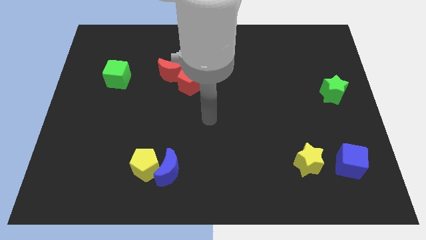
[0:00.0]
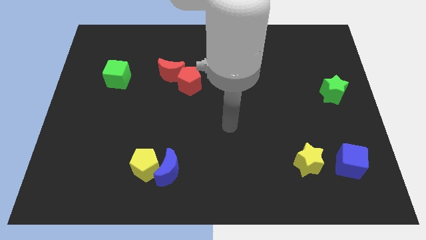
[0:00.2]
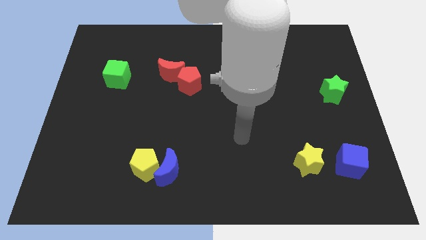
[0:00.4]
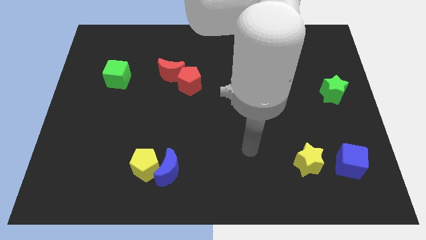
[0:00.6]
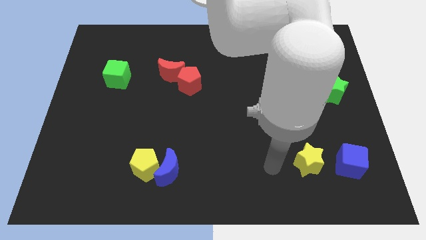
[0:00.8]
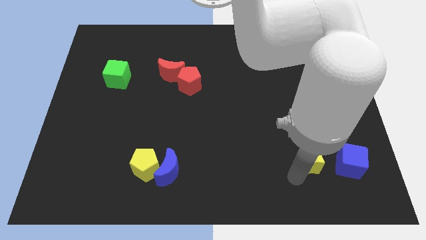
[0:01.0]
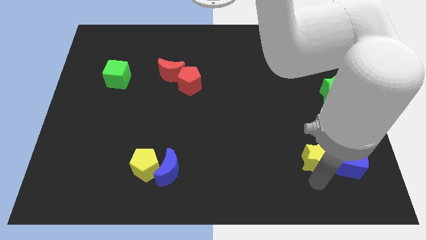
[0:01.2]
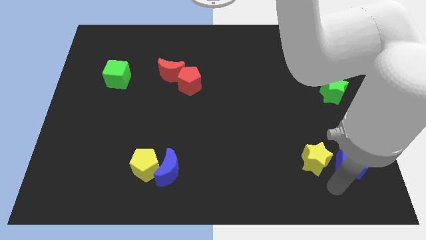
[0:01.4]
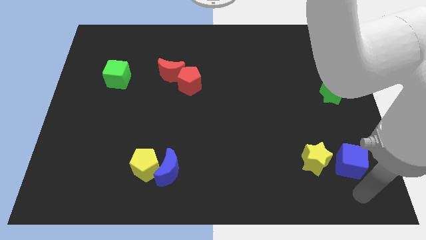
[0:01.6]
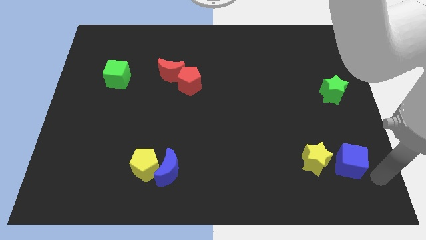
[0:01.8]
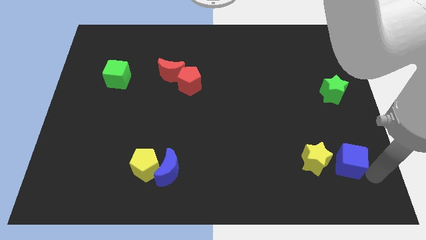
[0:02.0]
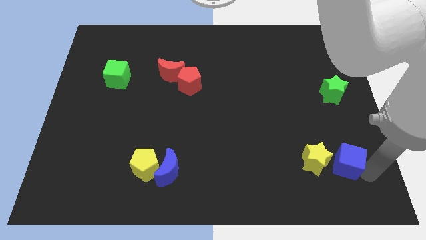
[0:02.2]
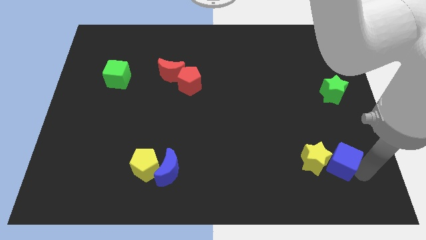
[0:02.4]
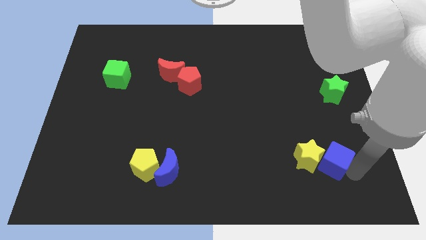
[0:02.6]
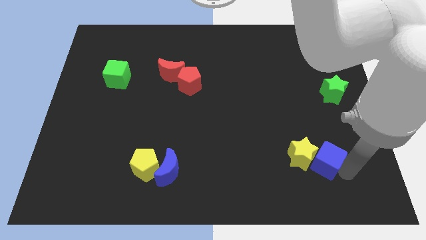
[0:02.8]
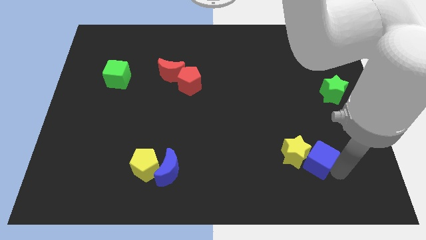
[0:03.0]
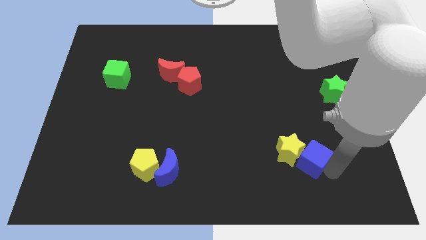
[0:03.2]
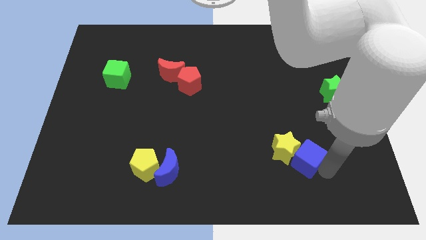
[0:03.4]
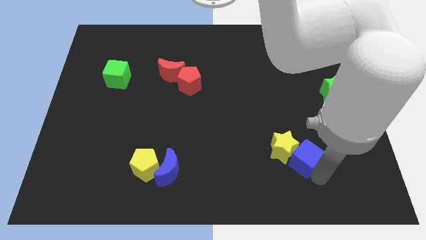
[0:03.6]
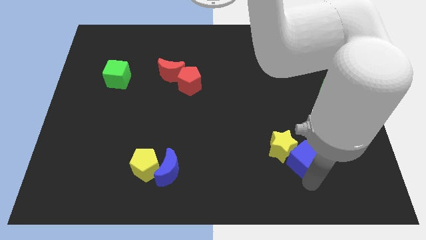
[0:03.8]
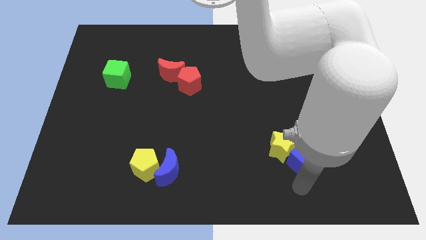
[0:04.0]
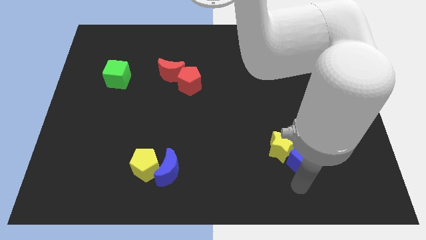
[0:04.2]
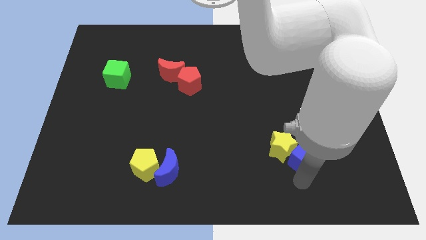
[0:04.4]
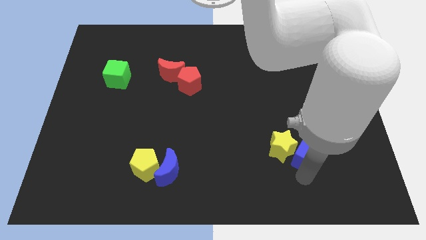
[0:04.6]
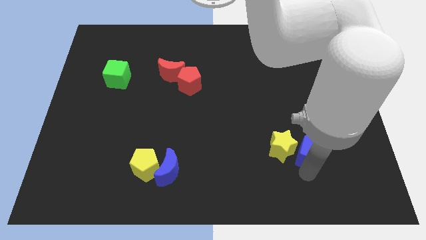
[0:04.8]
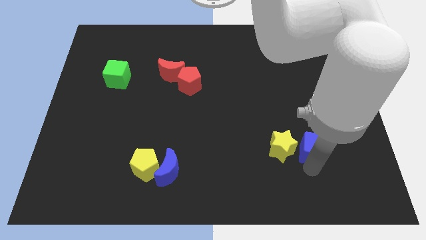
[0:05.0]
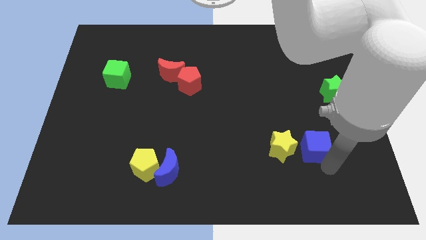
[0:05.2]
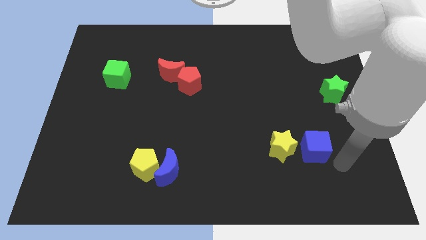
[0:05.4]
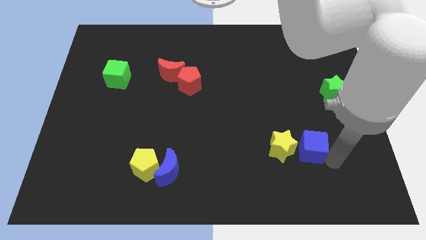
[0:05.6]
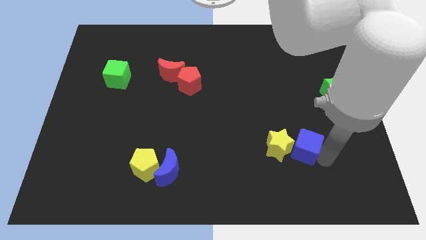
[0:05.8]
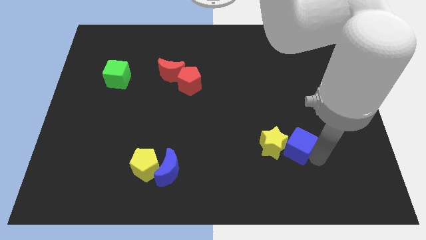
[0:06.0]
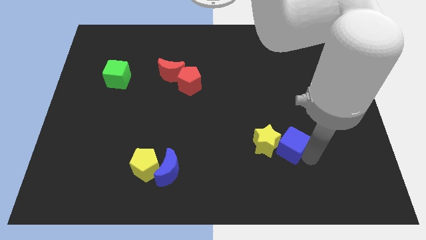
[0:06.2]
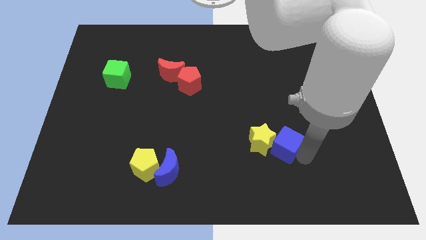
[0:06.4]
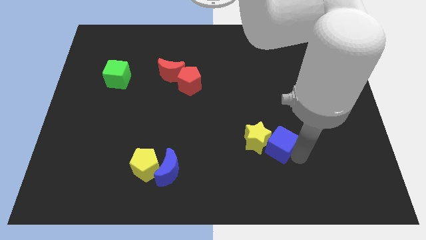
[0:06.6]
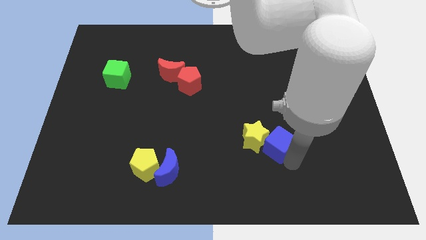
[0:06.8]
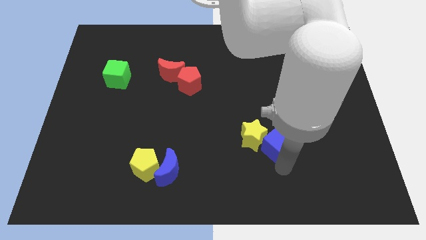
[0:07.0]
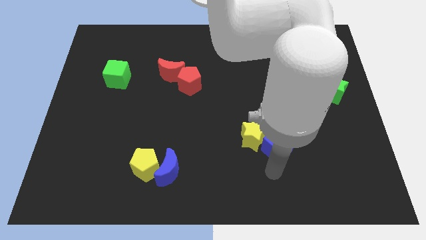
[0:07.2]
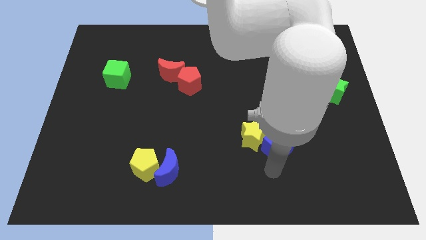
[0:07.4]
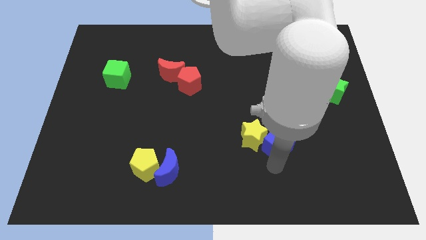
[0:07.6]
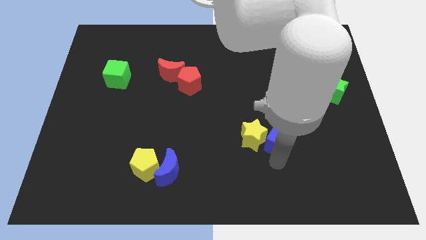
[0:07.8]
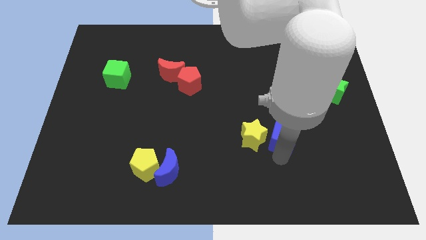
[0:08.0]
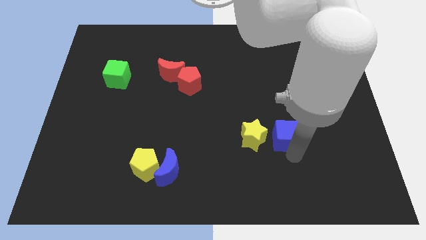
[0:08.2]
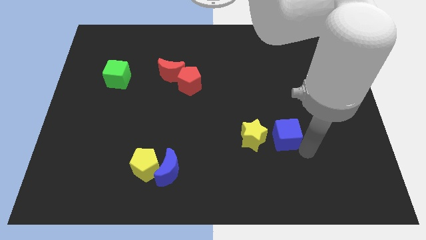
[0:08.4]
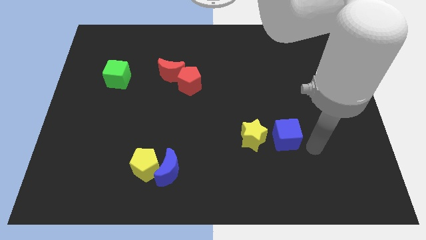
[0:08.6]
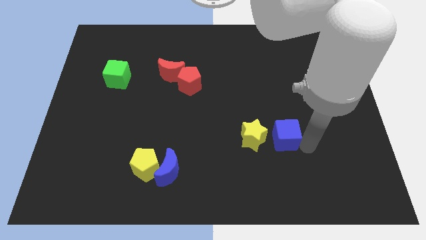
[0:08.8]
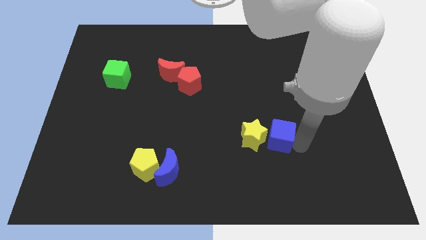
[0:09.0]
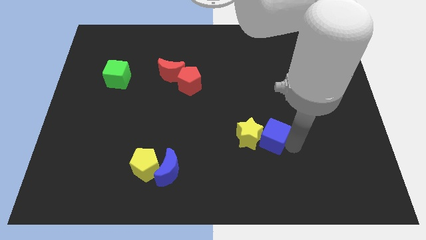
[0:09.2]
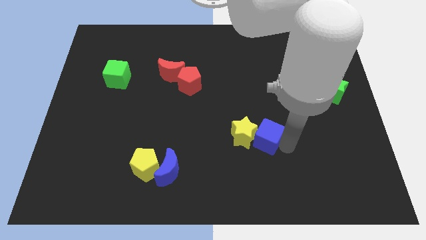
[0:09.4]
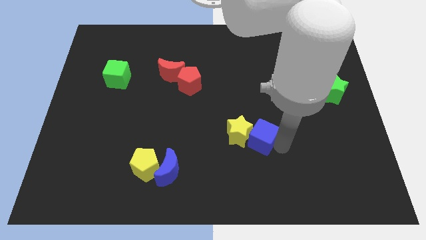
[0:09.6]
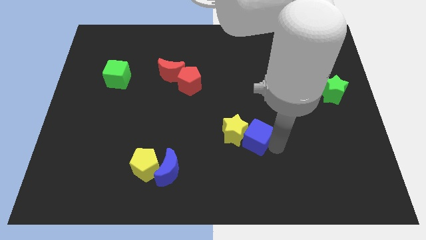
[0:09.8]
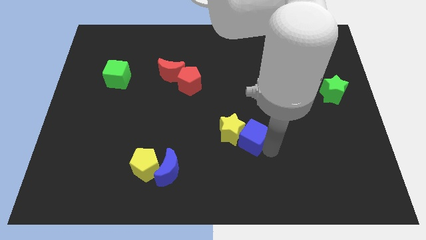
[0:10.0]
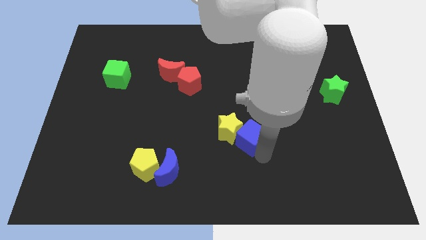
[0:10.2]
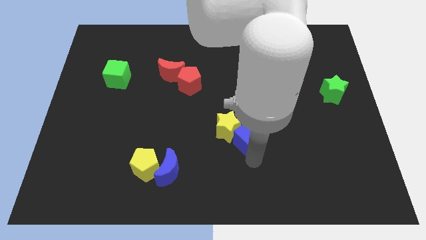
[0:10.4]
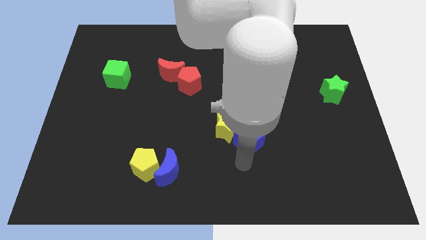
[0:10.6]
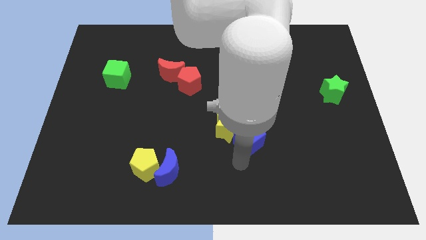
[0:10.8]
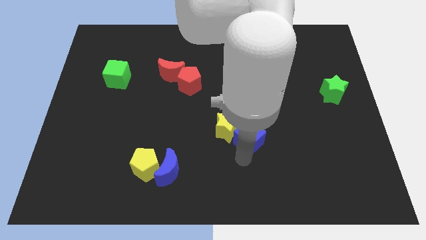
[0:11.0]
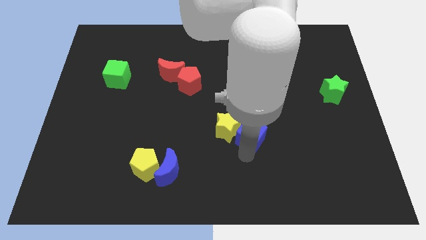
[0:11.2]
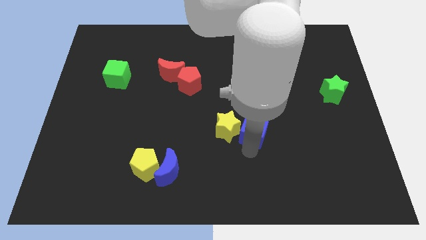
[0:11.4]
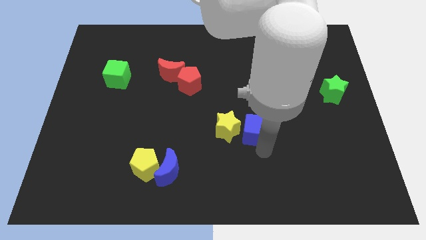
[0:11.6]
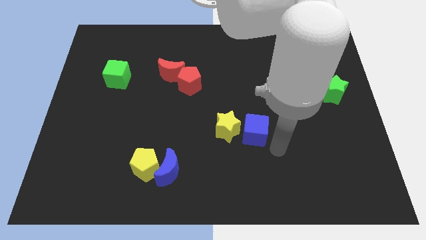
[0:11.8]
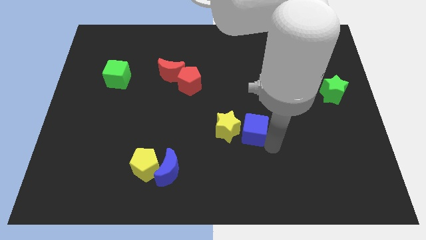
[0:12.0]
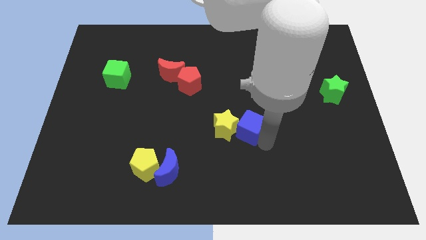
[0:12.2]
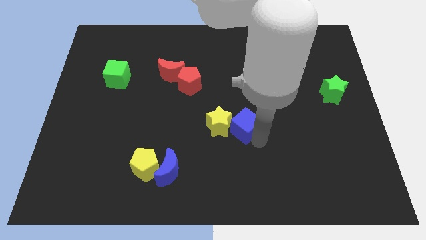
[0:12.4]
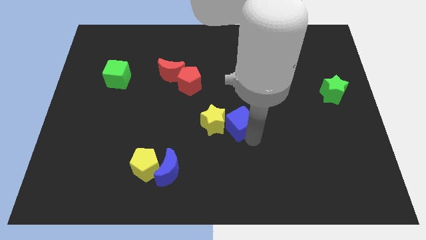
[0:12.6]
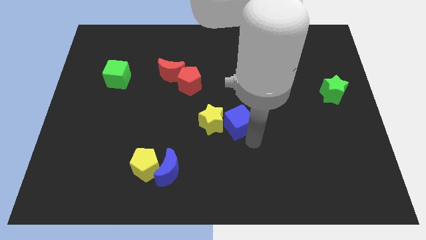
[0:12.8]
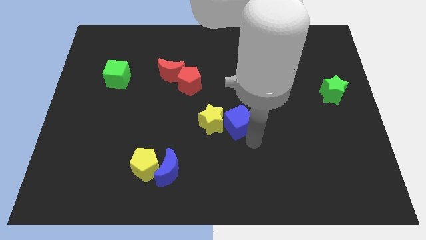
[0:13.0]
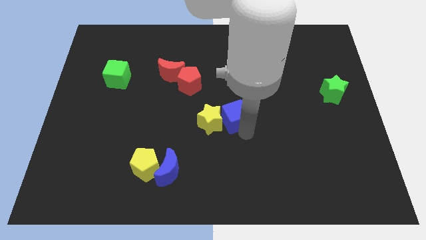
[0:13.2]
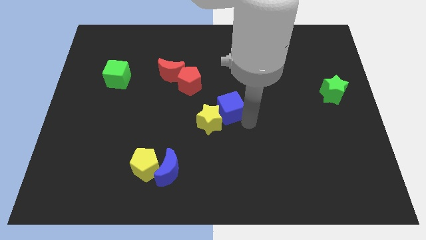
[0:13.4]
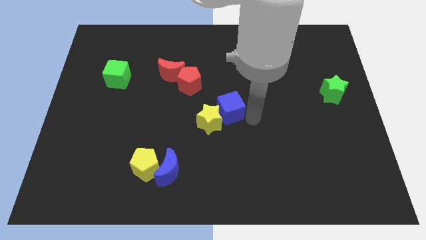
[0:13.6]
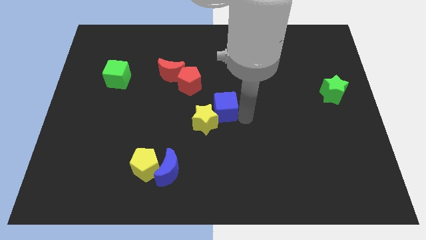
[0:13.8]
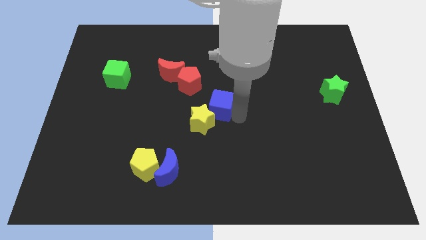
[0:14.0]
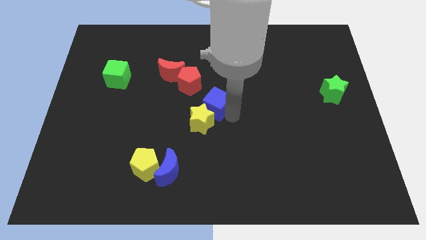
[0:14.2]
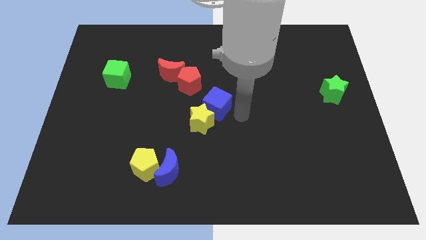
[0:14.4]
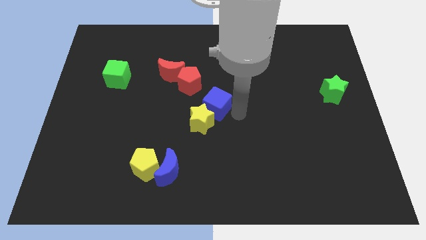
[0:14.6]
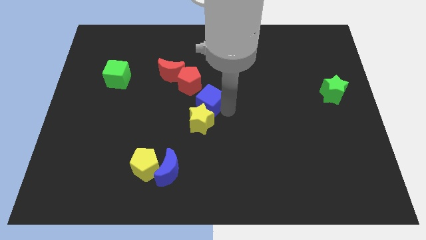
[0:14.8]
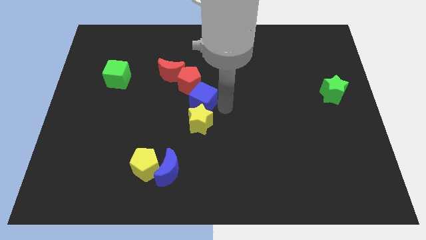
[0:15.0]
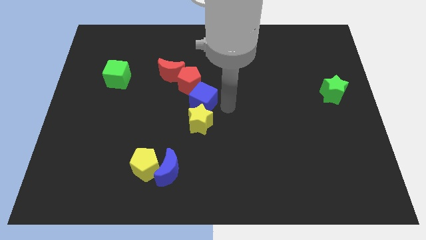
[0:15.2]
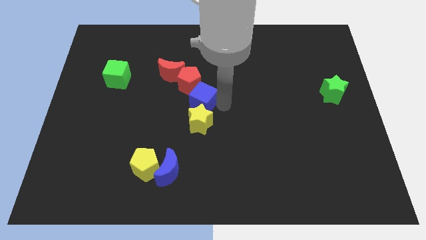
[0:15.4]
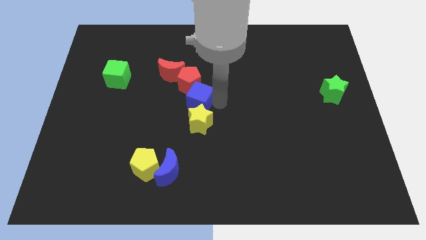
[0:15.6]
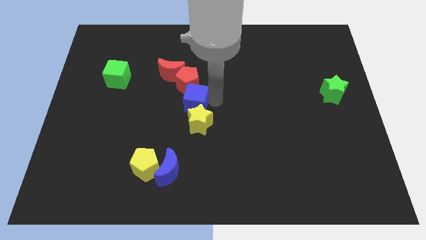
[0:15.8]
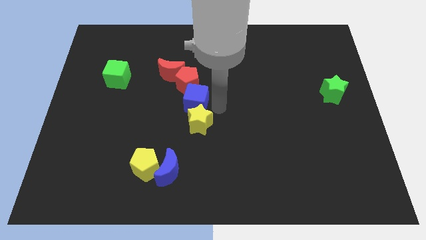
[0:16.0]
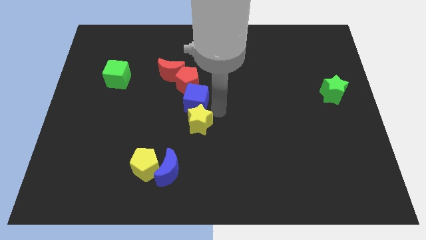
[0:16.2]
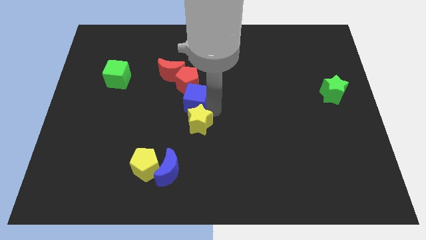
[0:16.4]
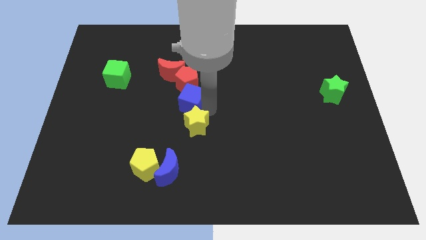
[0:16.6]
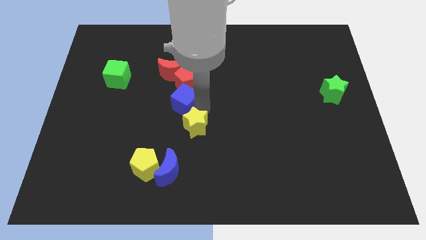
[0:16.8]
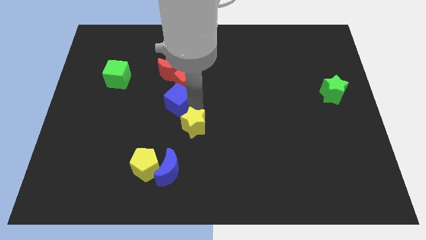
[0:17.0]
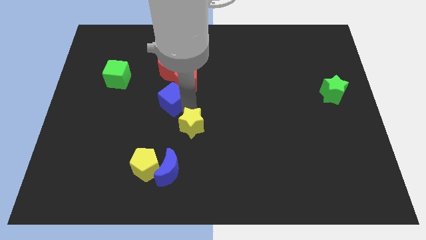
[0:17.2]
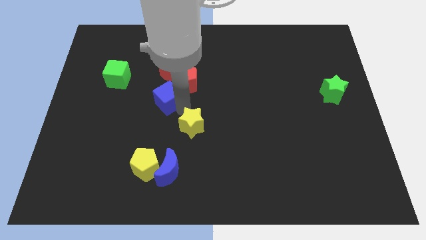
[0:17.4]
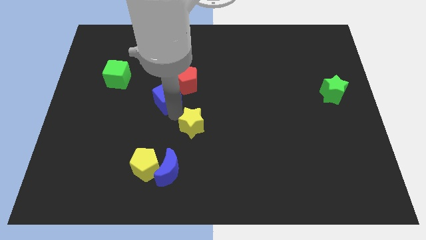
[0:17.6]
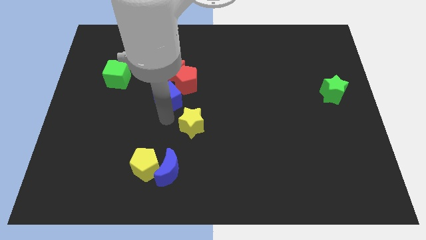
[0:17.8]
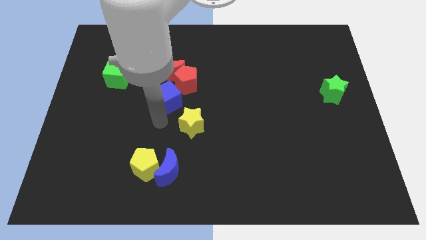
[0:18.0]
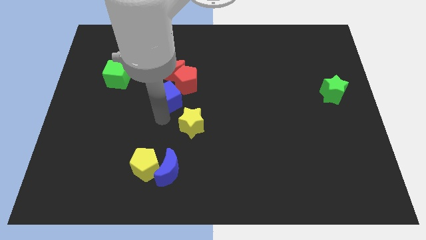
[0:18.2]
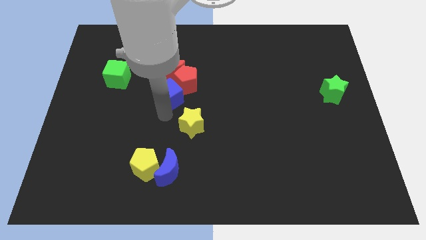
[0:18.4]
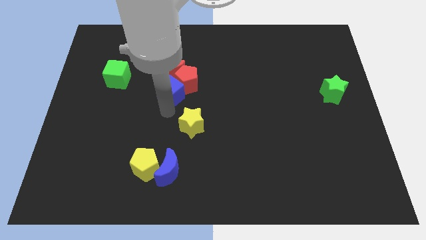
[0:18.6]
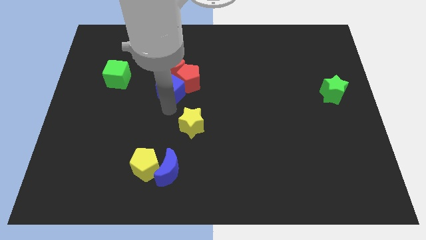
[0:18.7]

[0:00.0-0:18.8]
slide the blue cube next to the red moon
